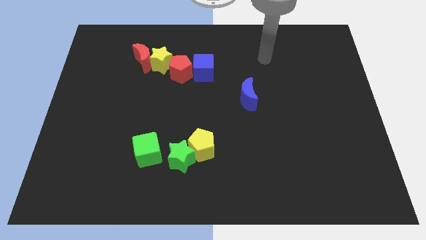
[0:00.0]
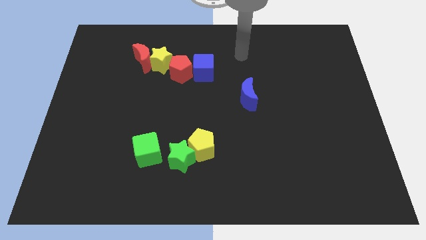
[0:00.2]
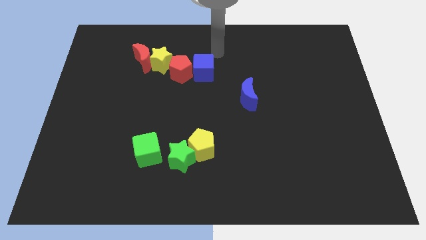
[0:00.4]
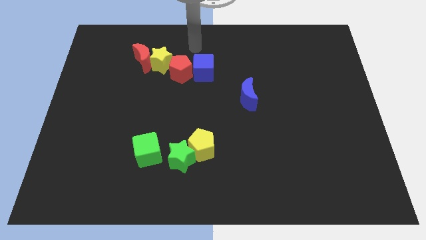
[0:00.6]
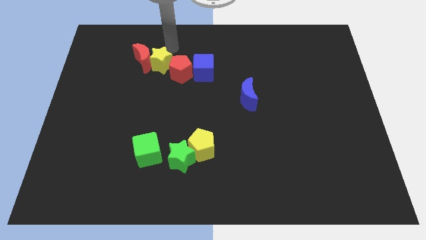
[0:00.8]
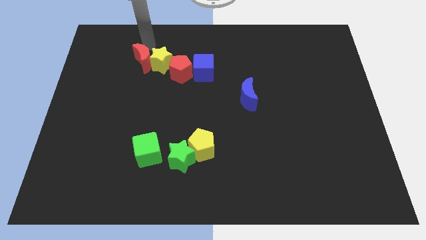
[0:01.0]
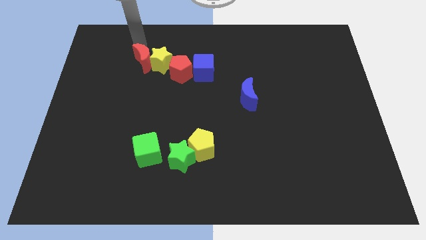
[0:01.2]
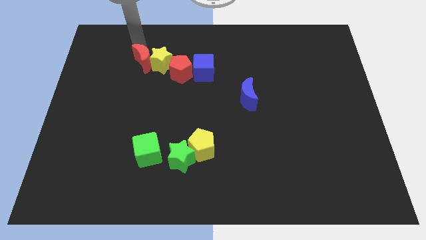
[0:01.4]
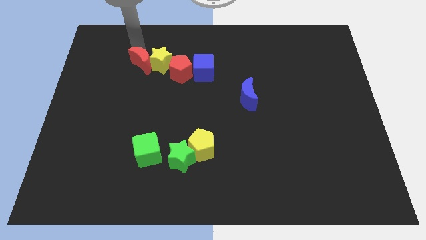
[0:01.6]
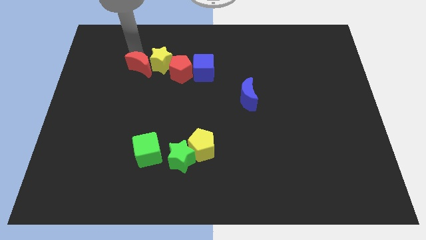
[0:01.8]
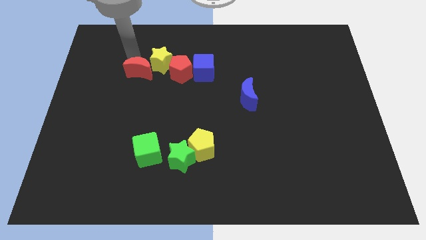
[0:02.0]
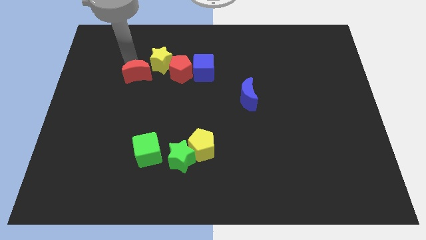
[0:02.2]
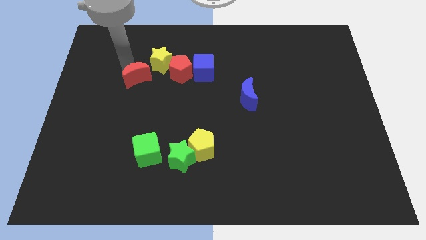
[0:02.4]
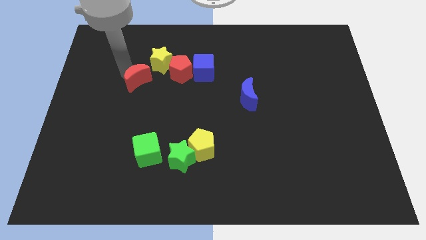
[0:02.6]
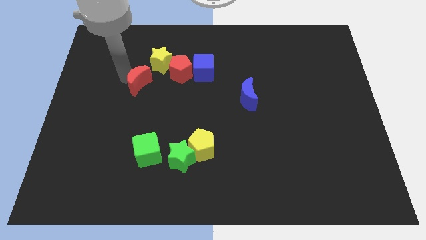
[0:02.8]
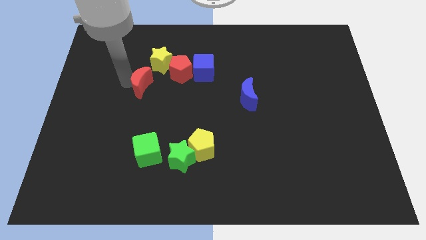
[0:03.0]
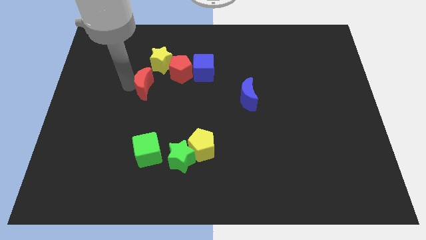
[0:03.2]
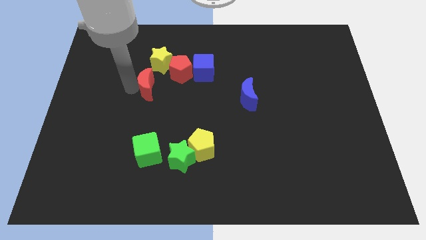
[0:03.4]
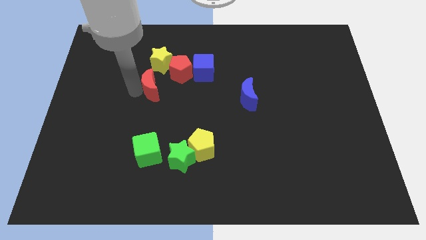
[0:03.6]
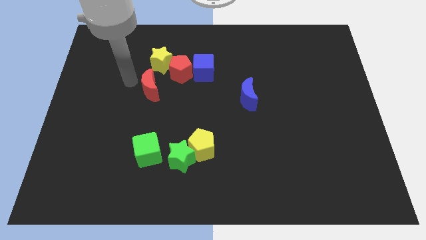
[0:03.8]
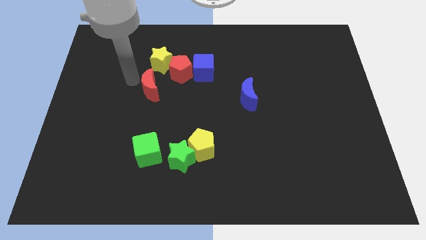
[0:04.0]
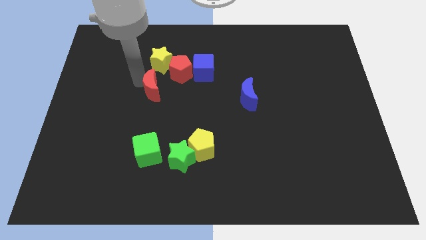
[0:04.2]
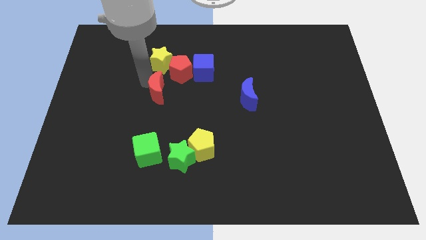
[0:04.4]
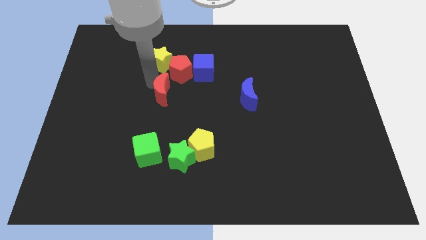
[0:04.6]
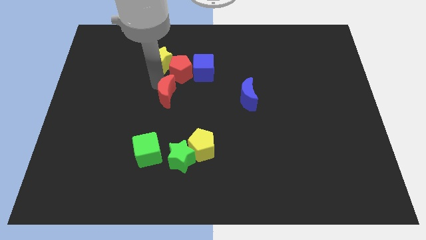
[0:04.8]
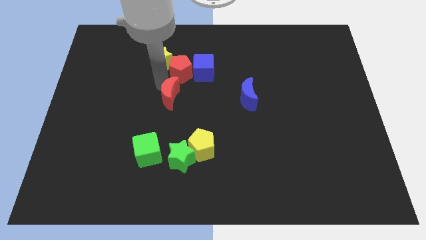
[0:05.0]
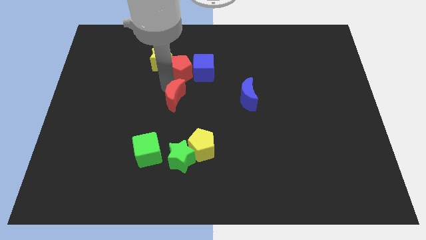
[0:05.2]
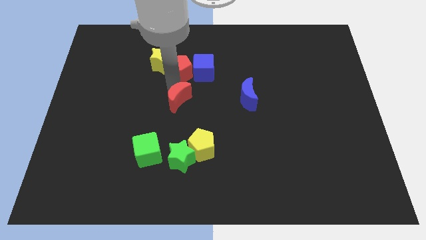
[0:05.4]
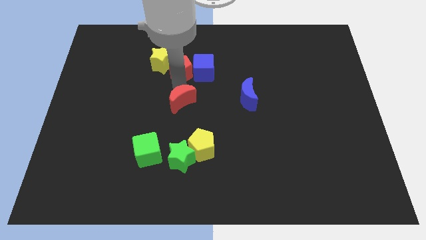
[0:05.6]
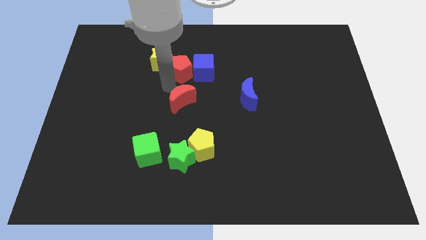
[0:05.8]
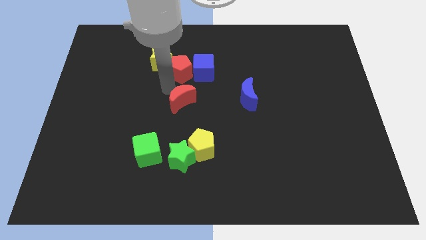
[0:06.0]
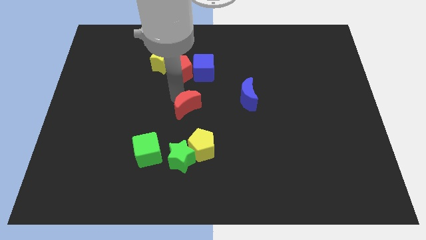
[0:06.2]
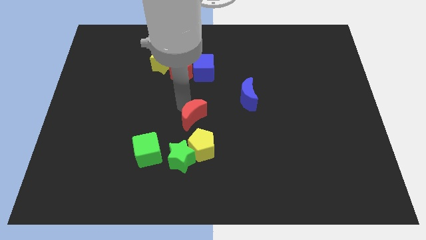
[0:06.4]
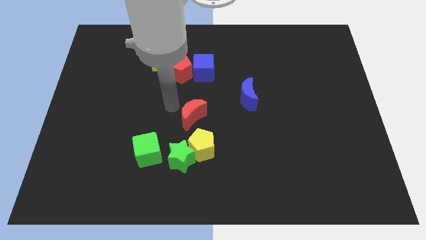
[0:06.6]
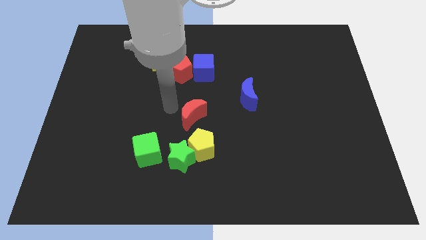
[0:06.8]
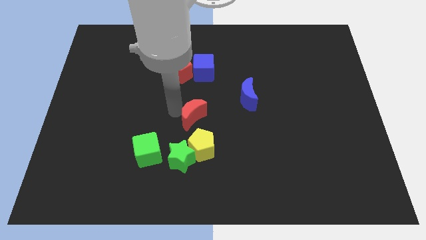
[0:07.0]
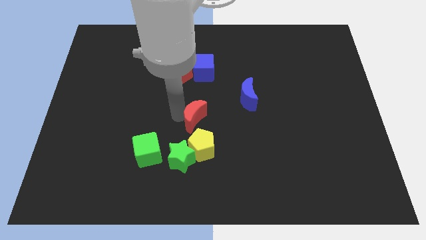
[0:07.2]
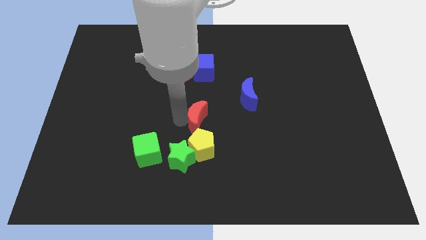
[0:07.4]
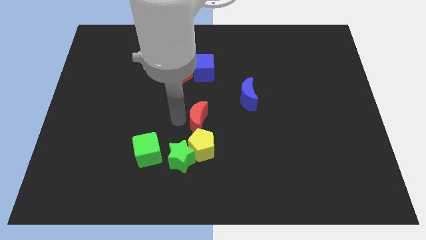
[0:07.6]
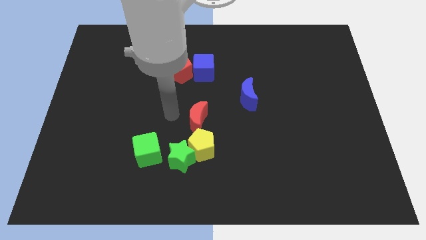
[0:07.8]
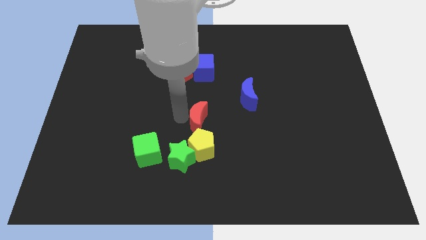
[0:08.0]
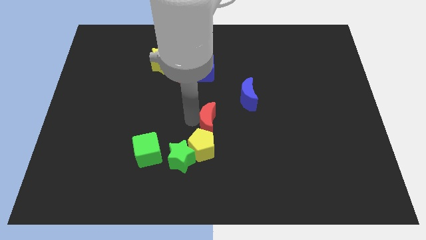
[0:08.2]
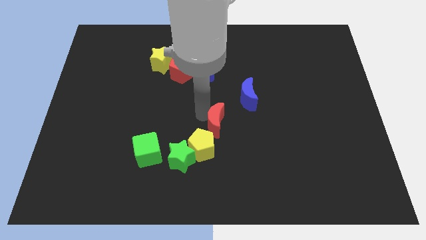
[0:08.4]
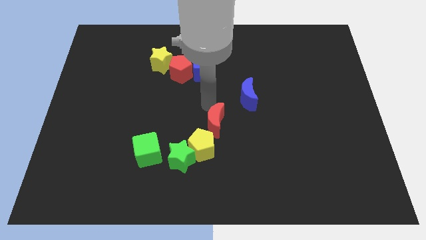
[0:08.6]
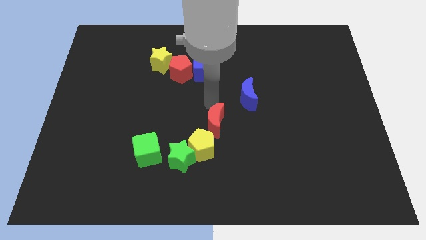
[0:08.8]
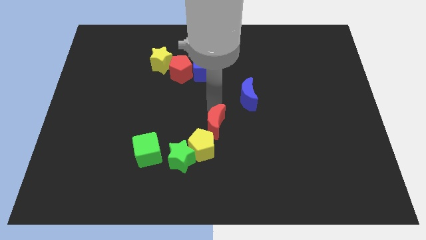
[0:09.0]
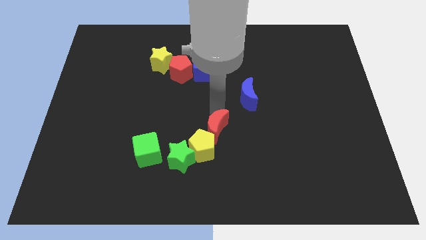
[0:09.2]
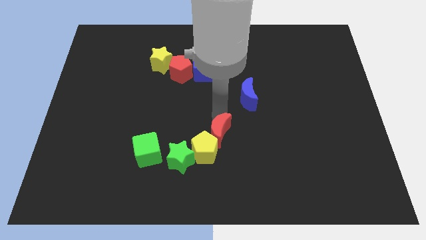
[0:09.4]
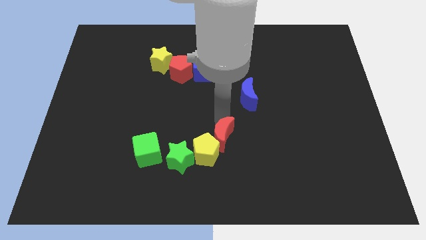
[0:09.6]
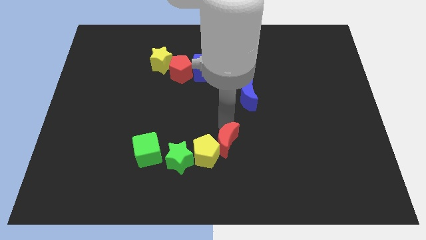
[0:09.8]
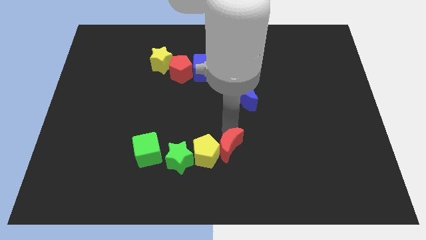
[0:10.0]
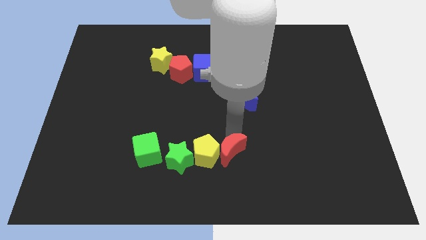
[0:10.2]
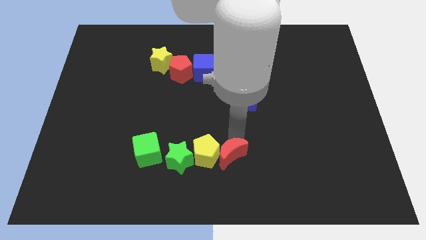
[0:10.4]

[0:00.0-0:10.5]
put the red moon to the bottom side
